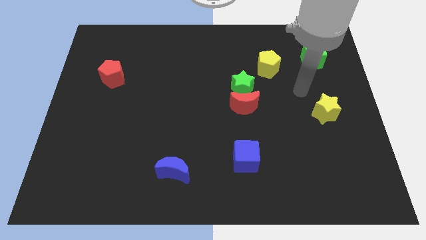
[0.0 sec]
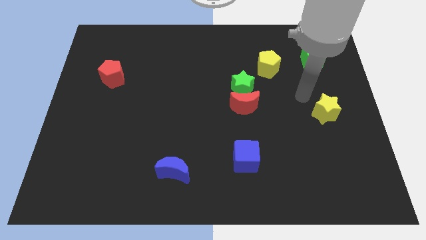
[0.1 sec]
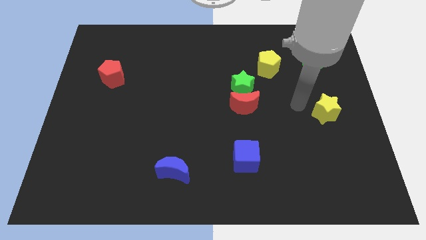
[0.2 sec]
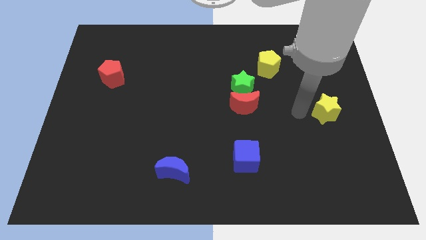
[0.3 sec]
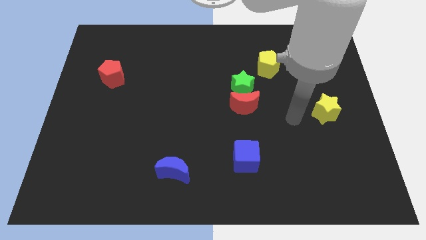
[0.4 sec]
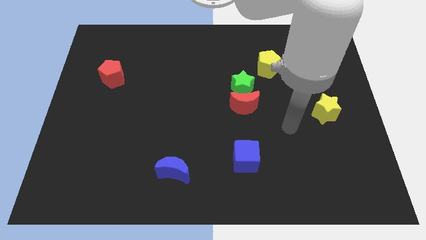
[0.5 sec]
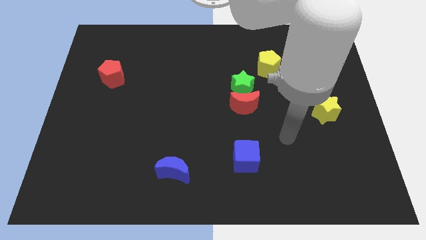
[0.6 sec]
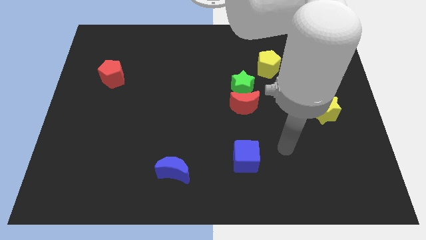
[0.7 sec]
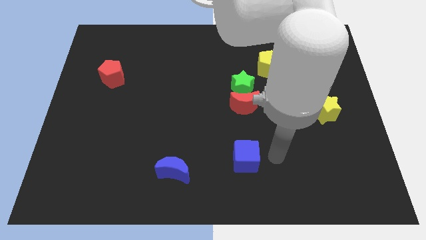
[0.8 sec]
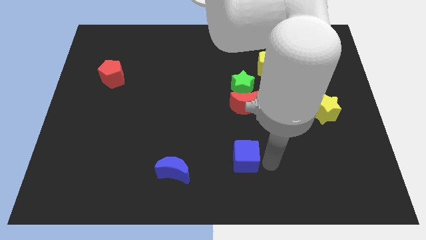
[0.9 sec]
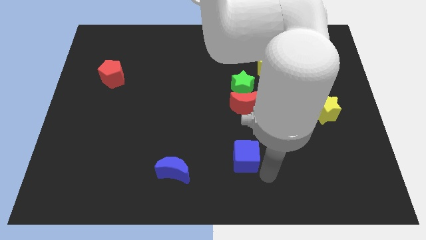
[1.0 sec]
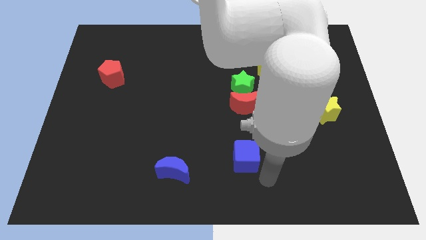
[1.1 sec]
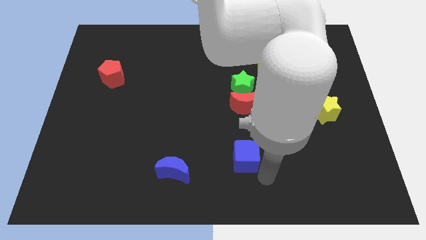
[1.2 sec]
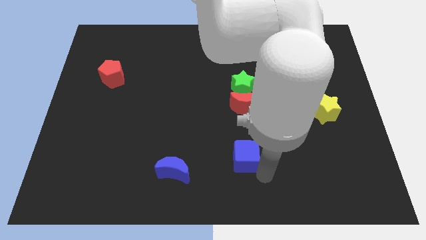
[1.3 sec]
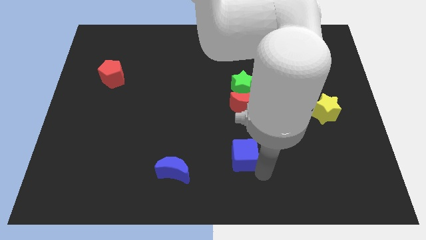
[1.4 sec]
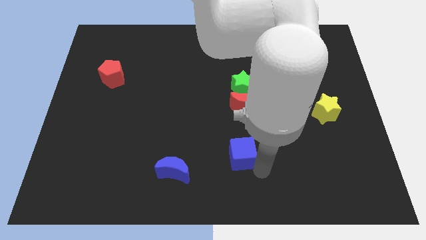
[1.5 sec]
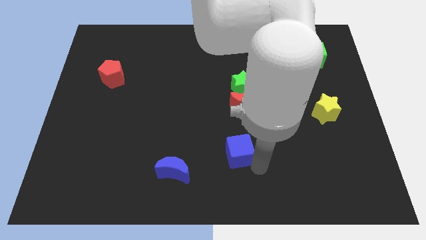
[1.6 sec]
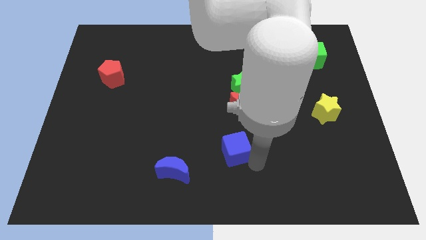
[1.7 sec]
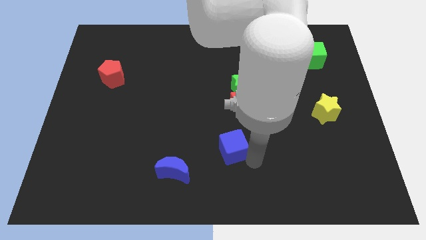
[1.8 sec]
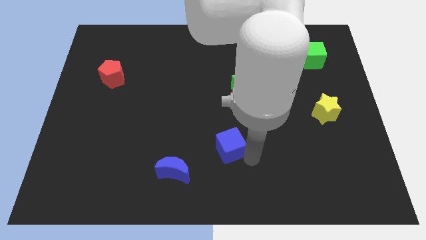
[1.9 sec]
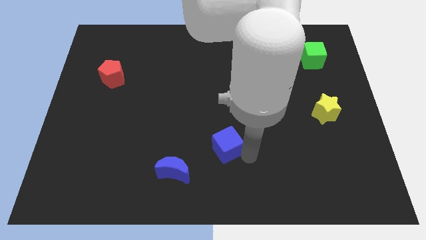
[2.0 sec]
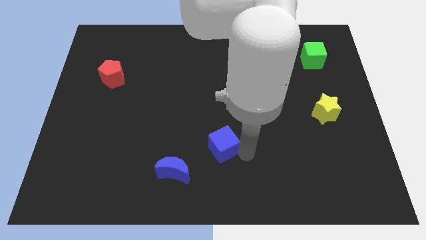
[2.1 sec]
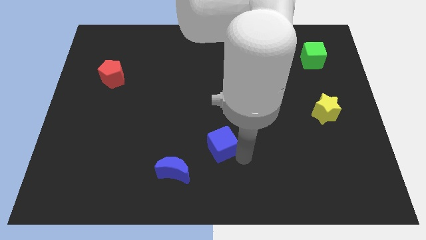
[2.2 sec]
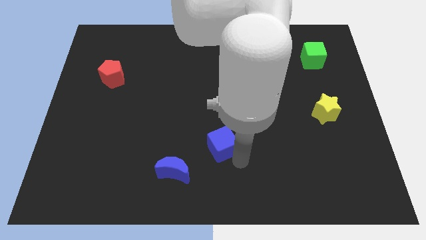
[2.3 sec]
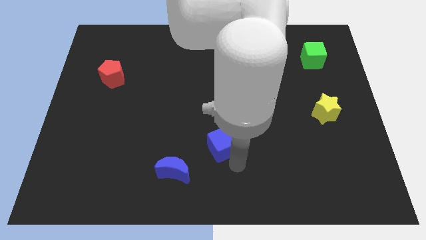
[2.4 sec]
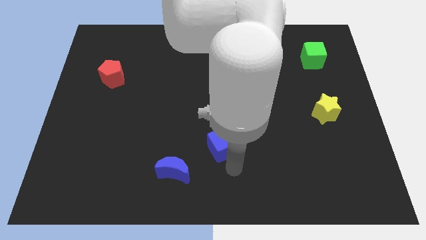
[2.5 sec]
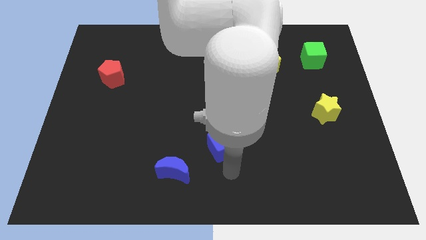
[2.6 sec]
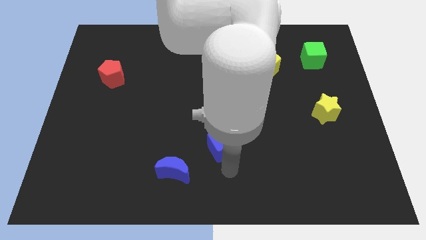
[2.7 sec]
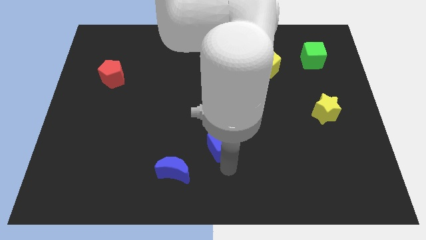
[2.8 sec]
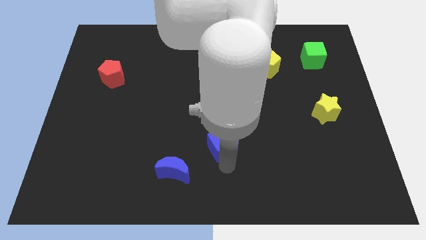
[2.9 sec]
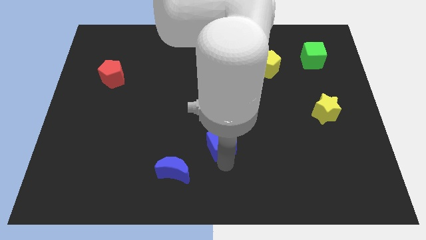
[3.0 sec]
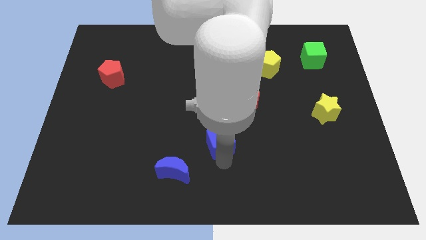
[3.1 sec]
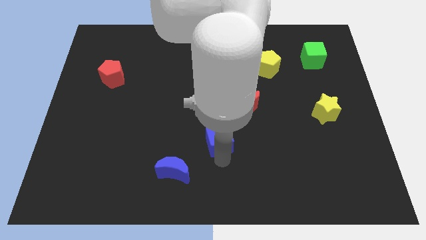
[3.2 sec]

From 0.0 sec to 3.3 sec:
move the blue cube upwards and to the left diagonally a bit

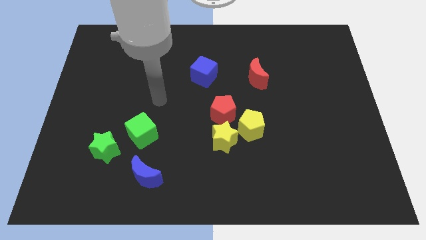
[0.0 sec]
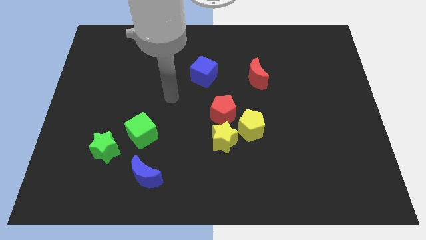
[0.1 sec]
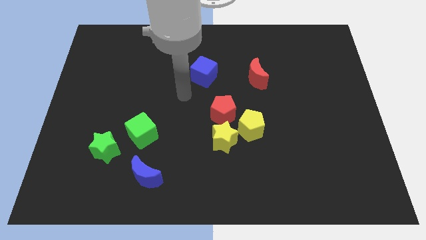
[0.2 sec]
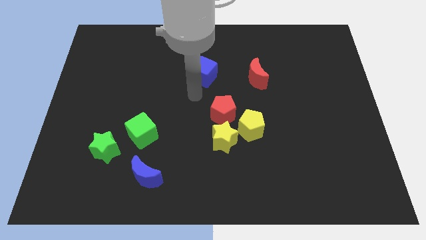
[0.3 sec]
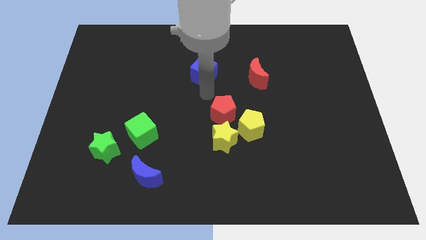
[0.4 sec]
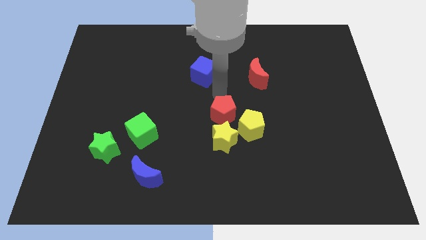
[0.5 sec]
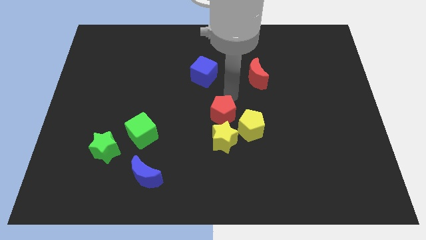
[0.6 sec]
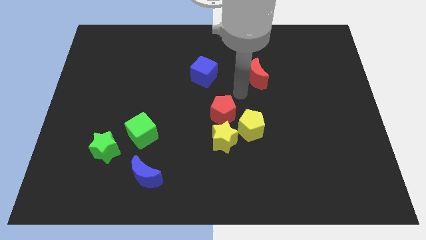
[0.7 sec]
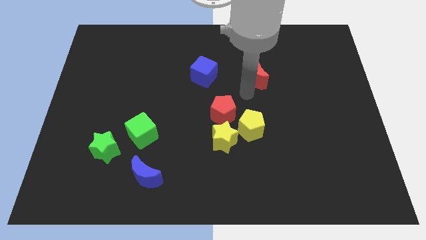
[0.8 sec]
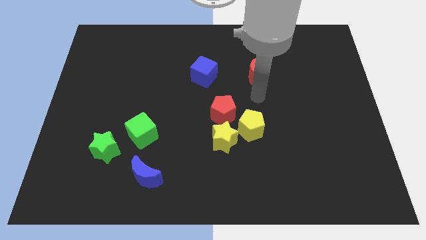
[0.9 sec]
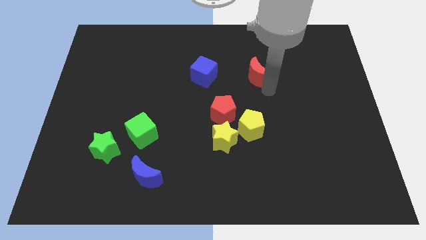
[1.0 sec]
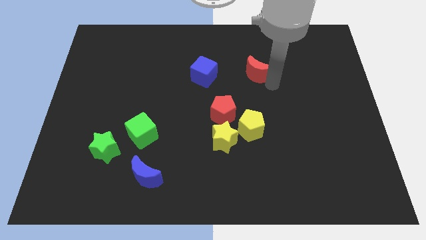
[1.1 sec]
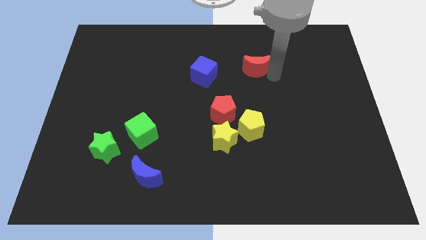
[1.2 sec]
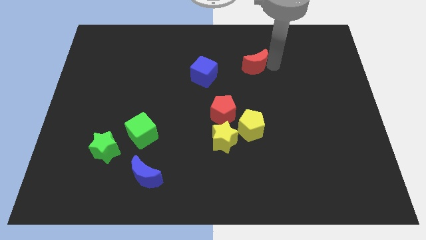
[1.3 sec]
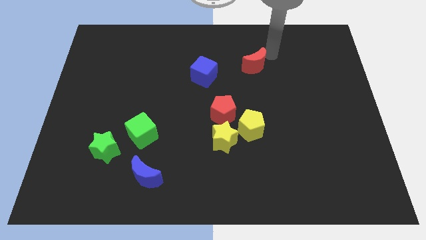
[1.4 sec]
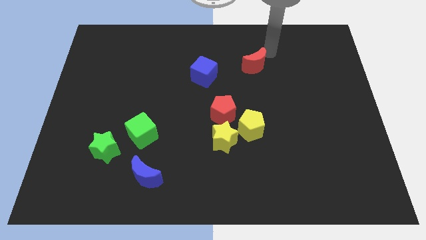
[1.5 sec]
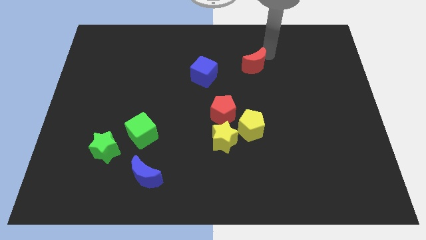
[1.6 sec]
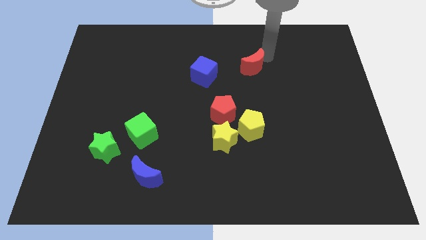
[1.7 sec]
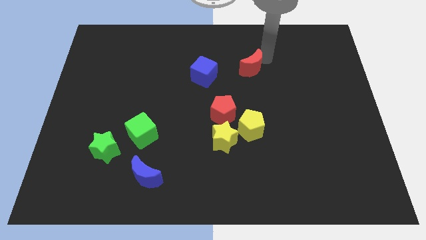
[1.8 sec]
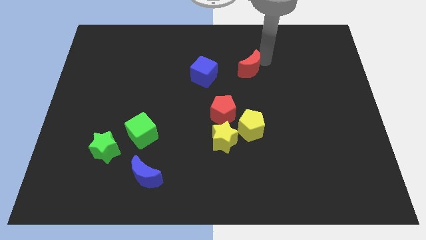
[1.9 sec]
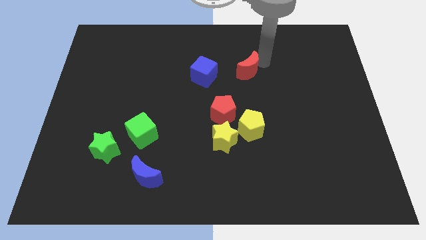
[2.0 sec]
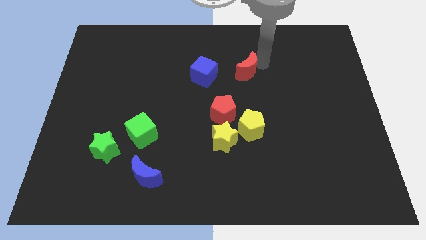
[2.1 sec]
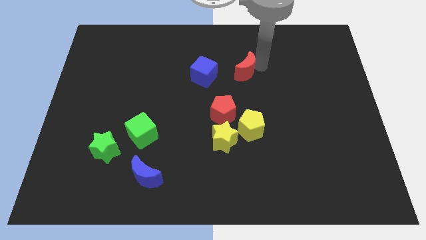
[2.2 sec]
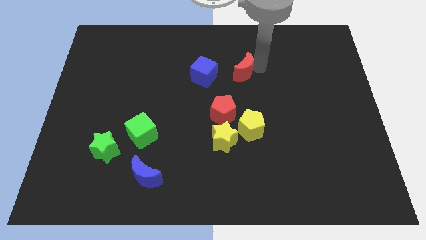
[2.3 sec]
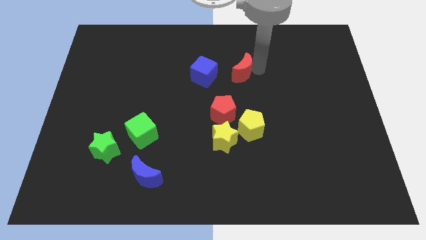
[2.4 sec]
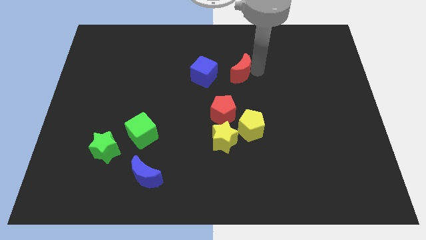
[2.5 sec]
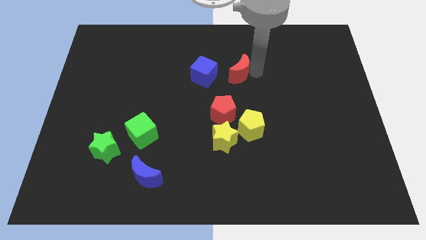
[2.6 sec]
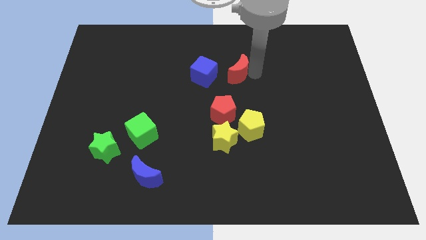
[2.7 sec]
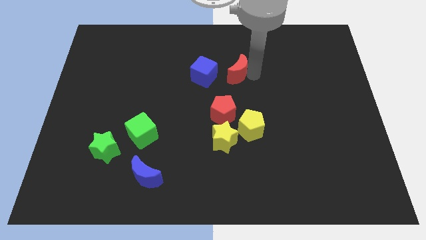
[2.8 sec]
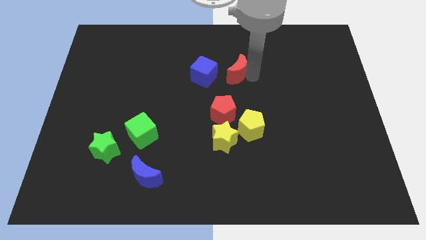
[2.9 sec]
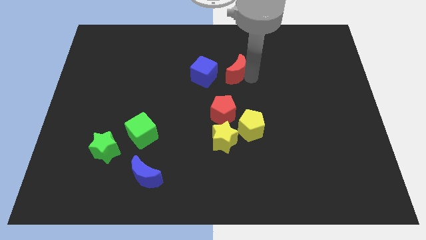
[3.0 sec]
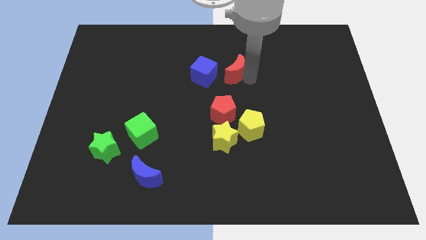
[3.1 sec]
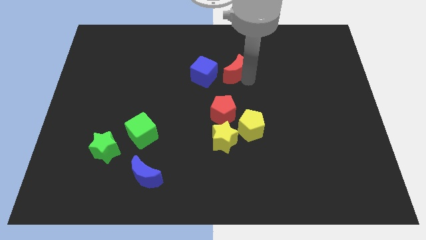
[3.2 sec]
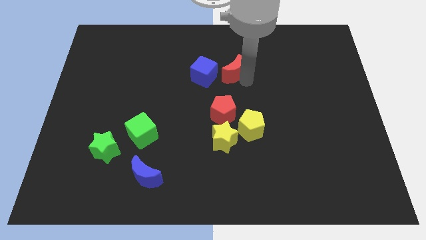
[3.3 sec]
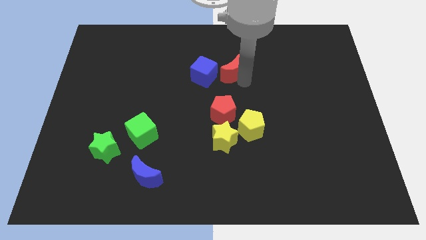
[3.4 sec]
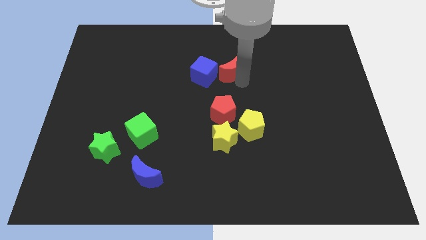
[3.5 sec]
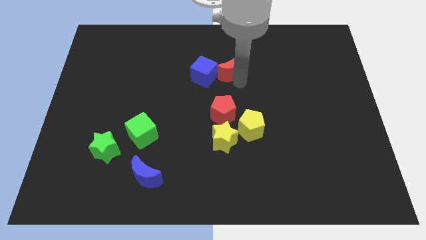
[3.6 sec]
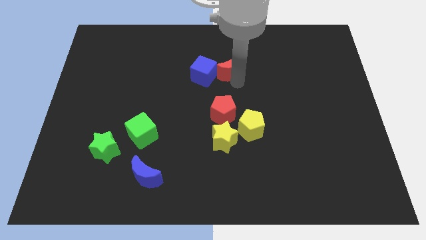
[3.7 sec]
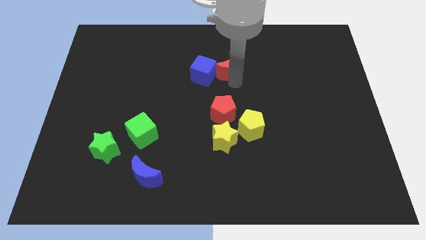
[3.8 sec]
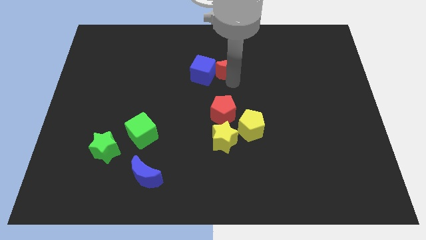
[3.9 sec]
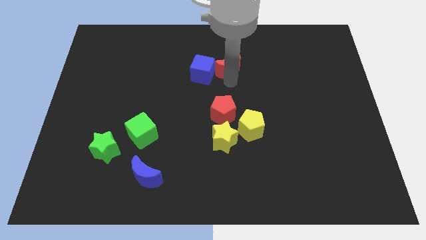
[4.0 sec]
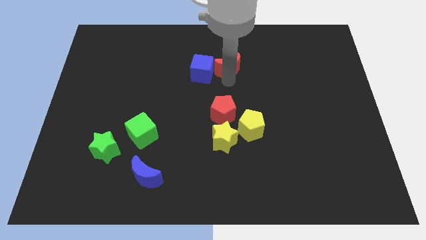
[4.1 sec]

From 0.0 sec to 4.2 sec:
slightly move the red moon left

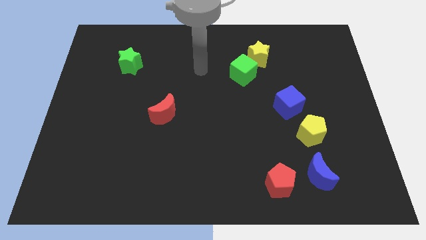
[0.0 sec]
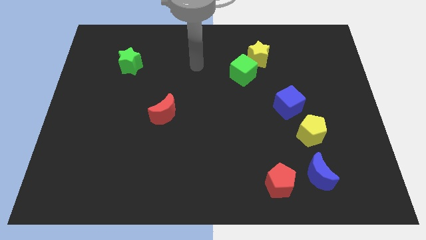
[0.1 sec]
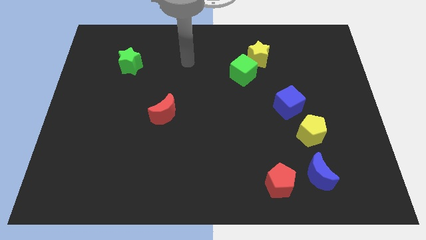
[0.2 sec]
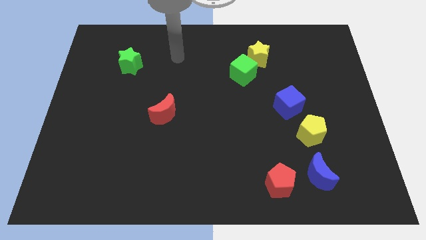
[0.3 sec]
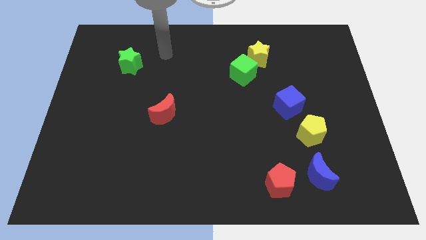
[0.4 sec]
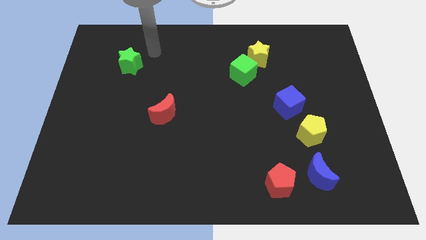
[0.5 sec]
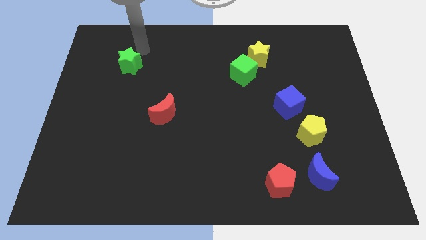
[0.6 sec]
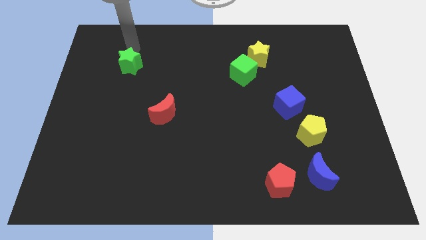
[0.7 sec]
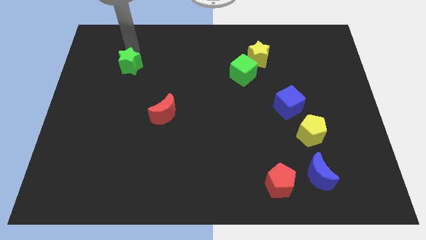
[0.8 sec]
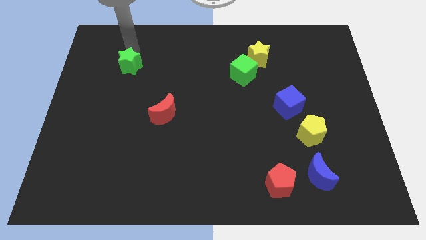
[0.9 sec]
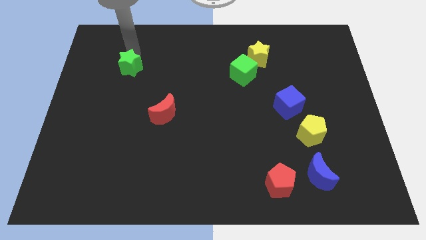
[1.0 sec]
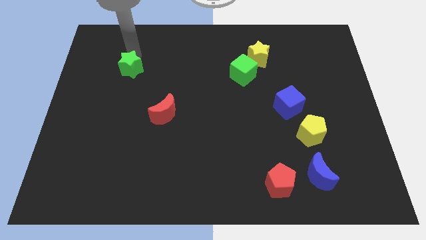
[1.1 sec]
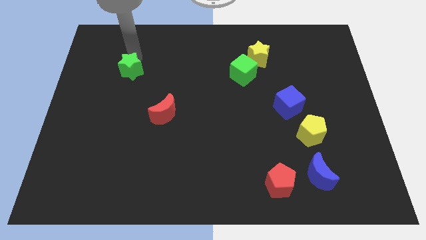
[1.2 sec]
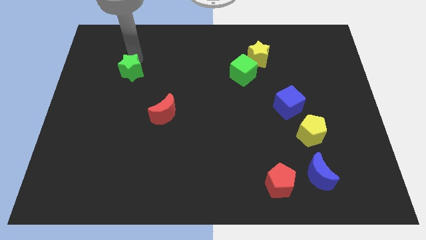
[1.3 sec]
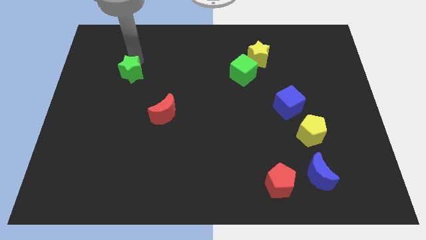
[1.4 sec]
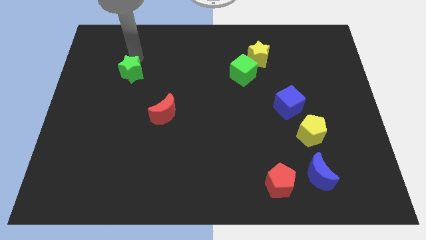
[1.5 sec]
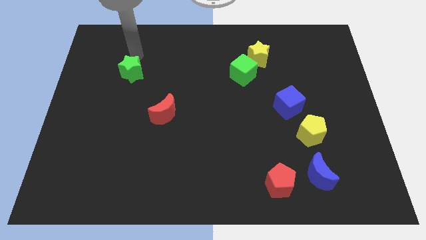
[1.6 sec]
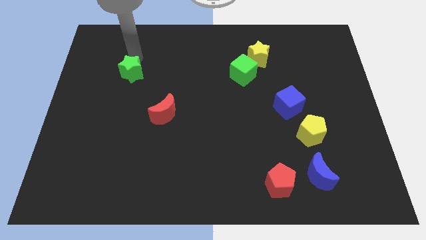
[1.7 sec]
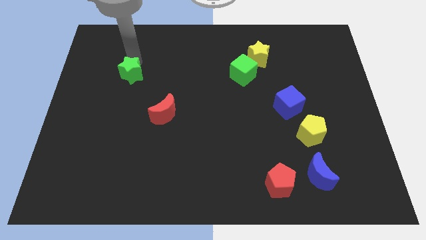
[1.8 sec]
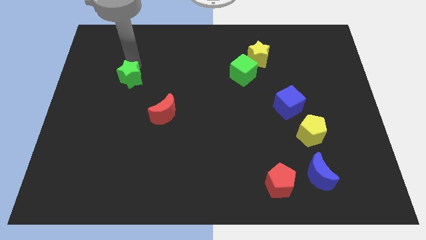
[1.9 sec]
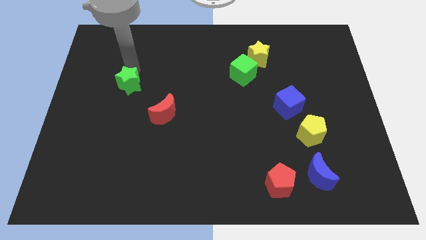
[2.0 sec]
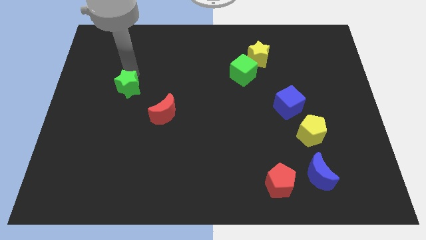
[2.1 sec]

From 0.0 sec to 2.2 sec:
push the green star down a little
